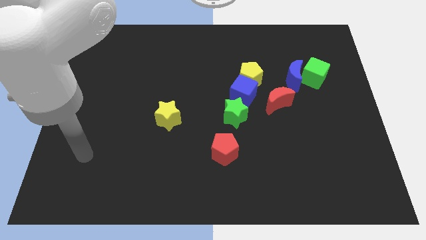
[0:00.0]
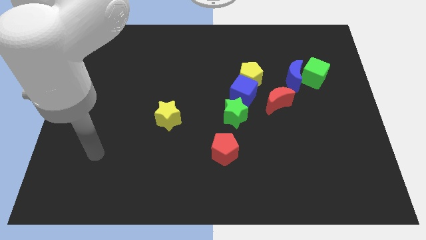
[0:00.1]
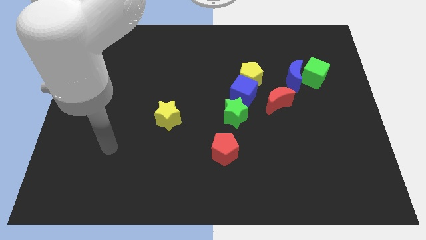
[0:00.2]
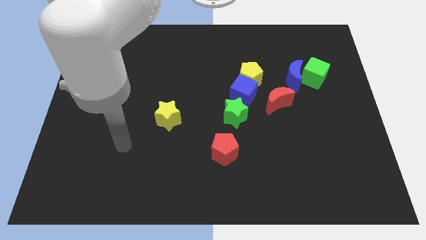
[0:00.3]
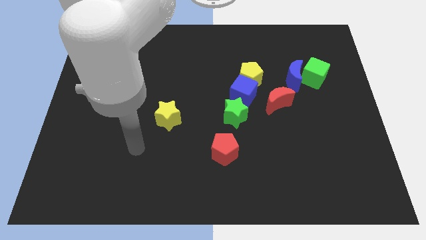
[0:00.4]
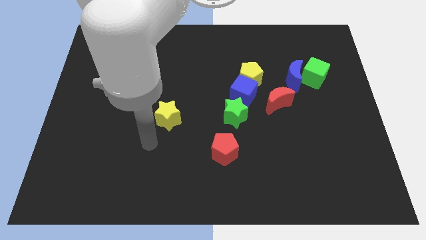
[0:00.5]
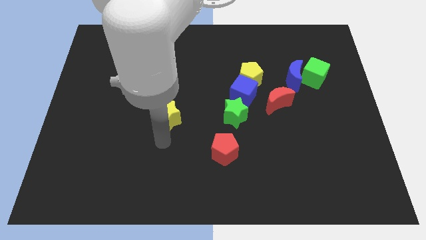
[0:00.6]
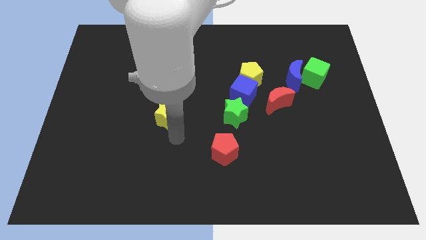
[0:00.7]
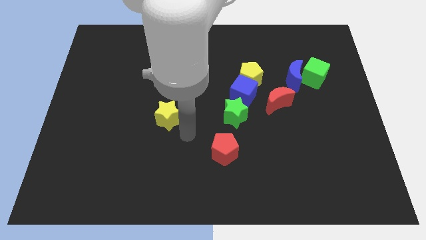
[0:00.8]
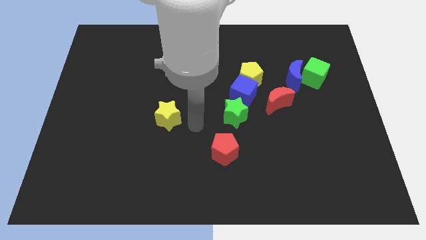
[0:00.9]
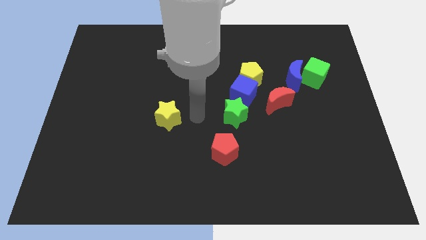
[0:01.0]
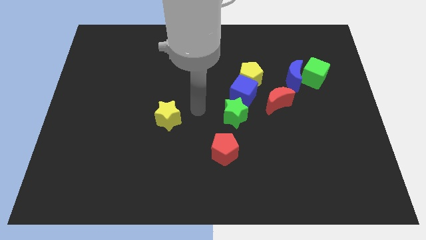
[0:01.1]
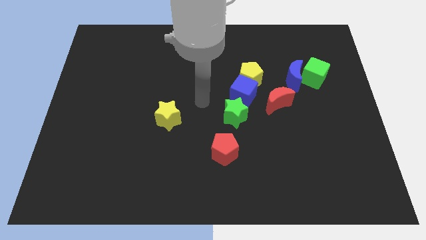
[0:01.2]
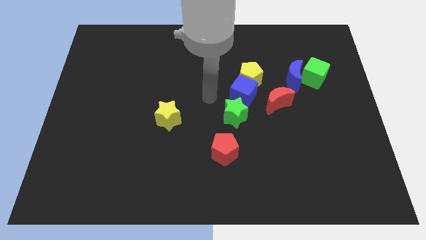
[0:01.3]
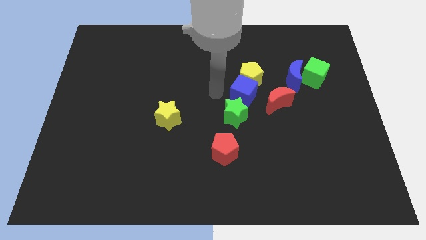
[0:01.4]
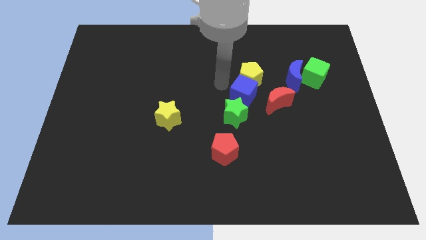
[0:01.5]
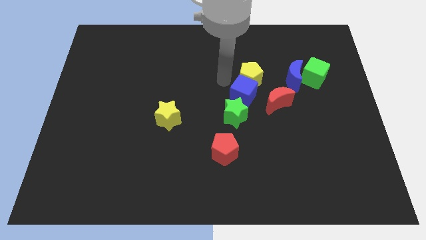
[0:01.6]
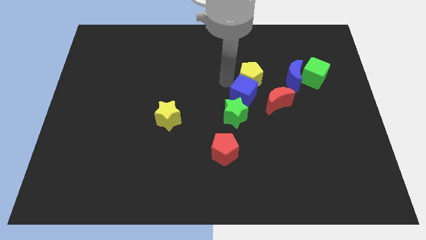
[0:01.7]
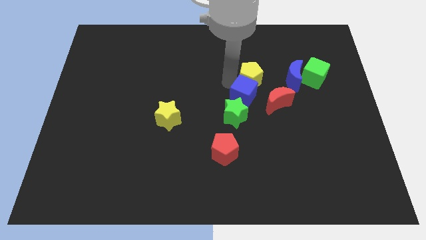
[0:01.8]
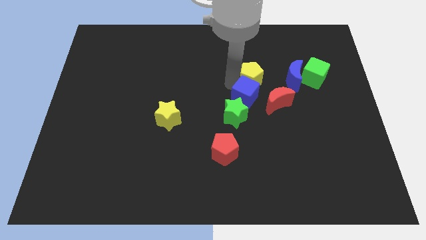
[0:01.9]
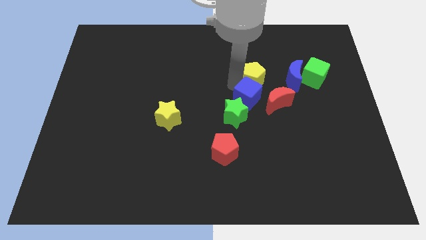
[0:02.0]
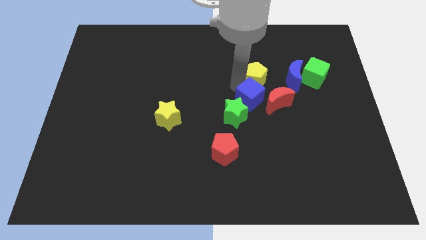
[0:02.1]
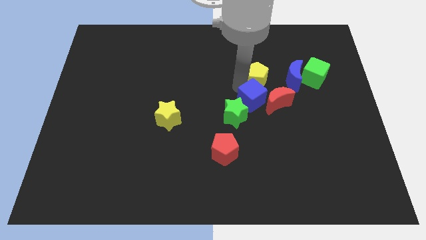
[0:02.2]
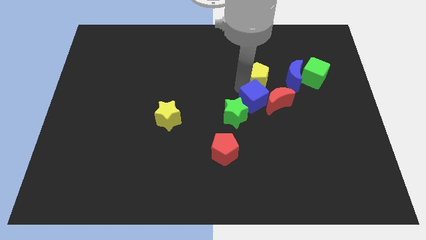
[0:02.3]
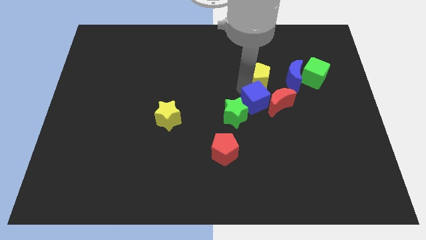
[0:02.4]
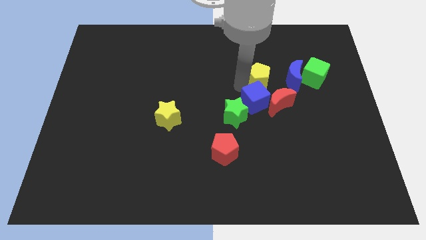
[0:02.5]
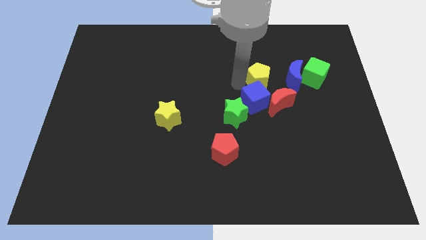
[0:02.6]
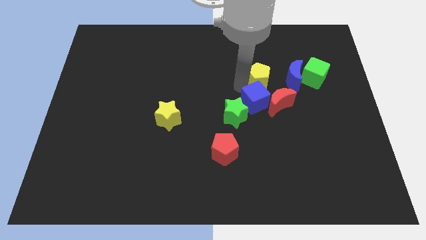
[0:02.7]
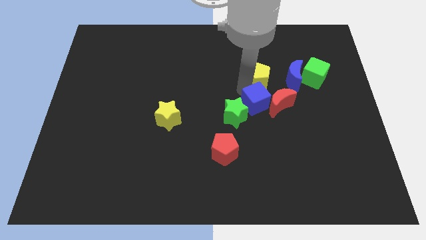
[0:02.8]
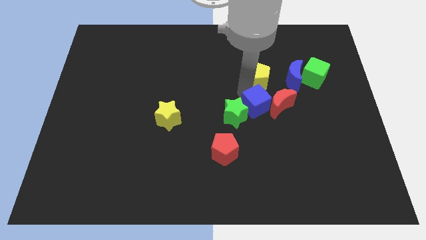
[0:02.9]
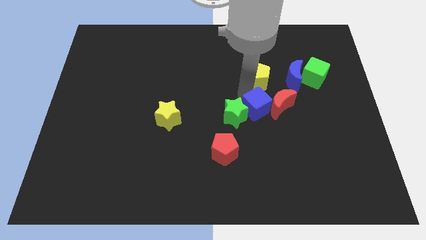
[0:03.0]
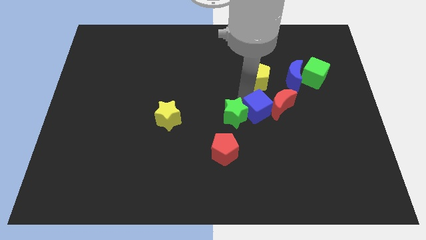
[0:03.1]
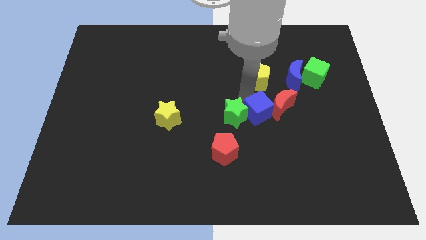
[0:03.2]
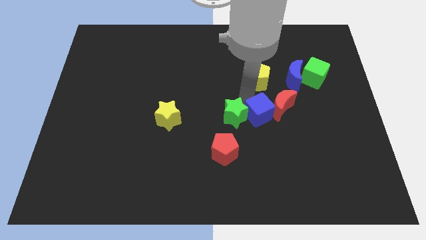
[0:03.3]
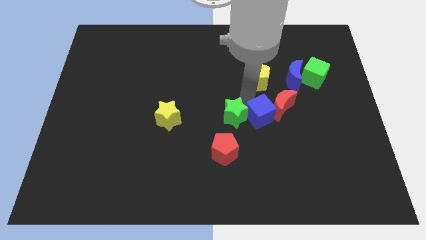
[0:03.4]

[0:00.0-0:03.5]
slide the blue cube a little bit diagonally down and to the right

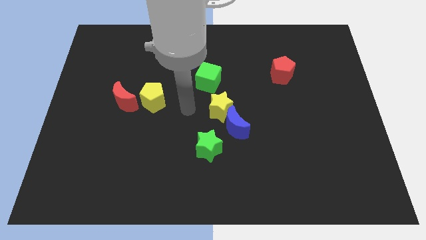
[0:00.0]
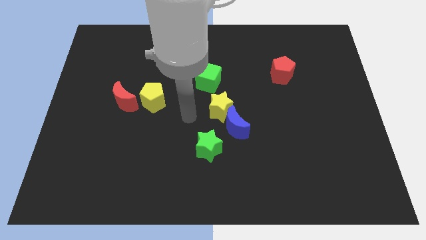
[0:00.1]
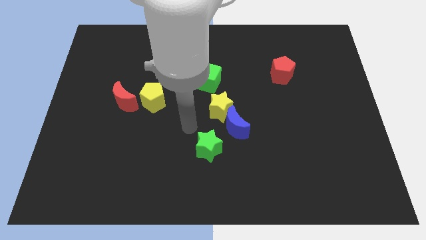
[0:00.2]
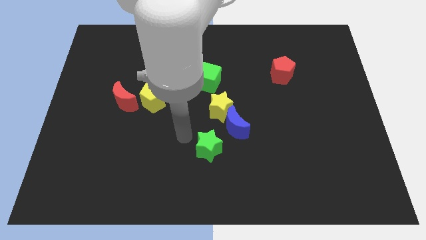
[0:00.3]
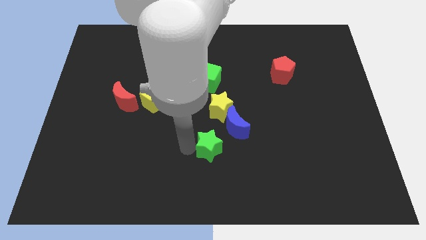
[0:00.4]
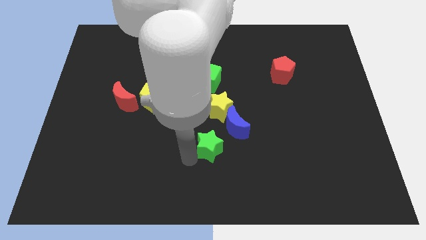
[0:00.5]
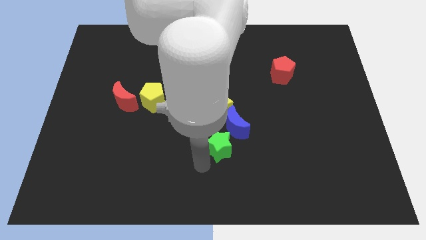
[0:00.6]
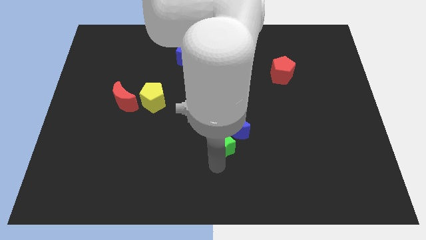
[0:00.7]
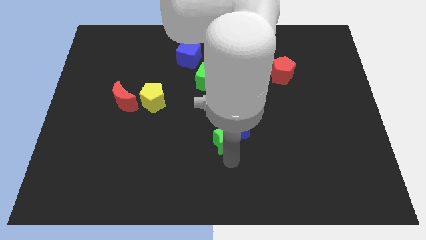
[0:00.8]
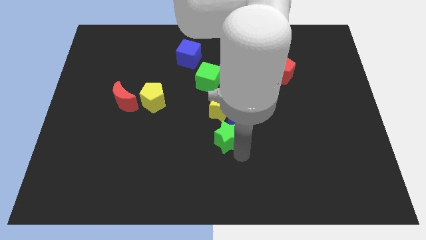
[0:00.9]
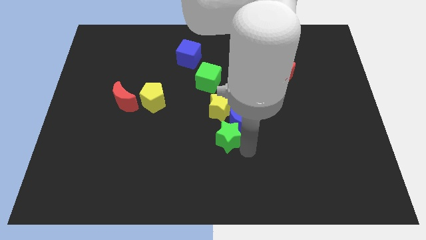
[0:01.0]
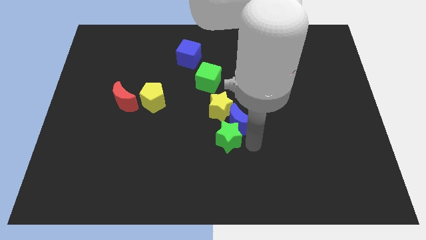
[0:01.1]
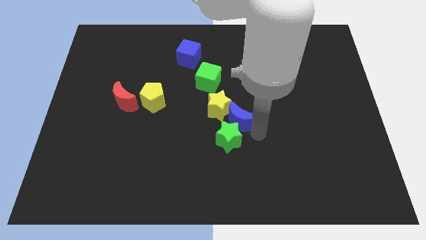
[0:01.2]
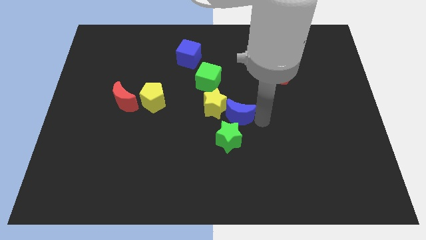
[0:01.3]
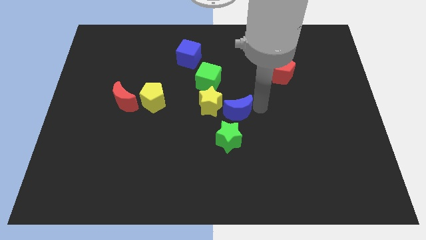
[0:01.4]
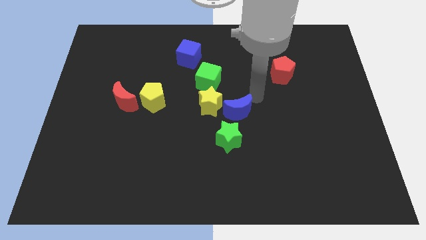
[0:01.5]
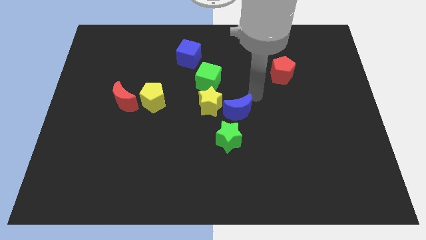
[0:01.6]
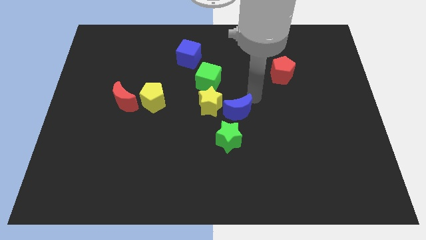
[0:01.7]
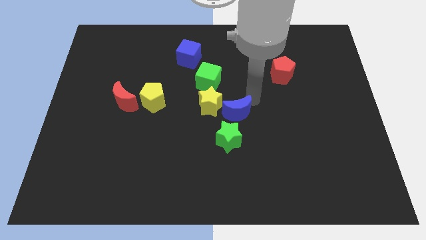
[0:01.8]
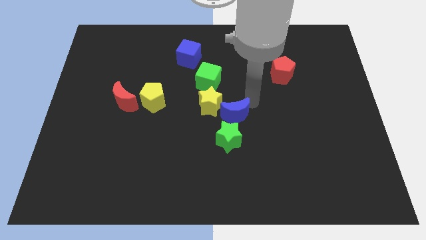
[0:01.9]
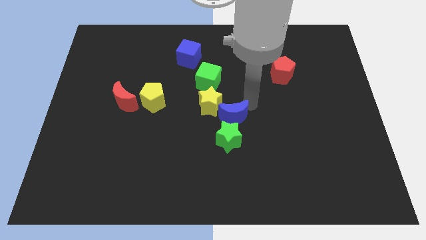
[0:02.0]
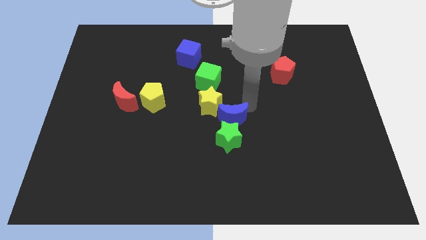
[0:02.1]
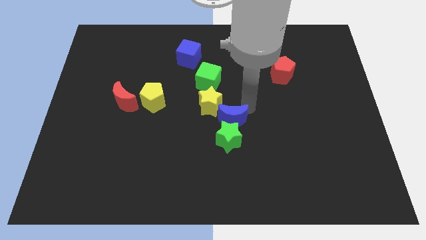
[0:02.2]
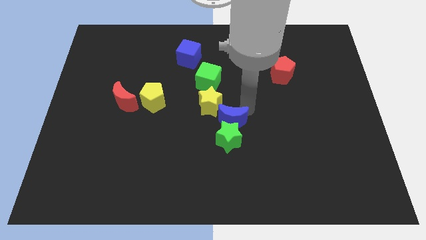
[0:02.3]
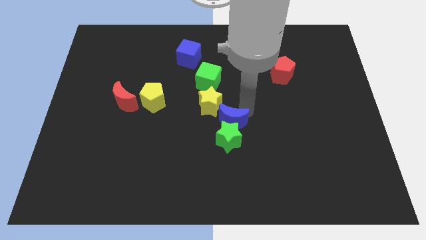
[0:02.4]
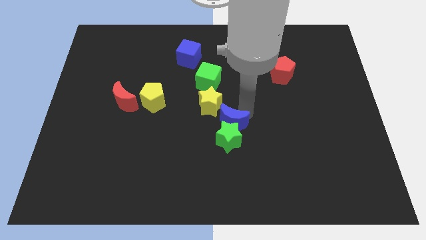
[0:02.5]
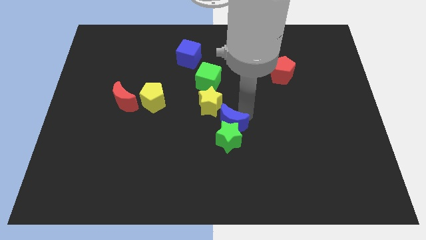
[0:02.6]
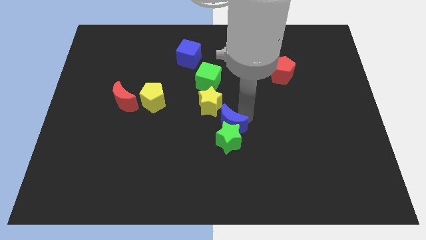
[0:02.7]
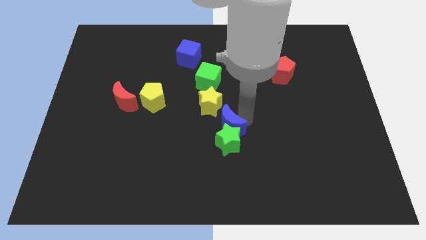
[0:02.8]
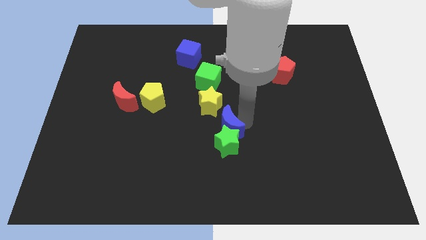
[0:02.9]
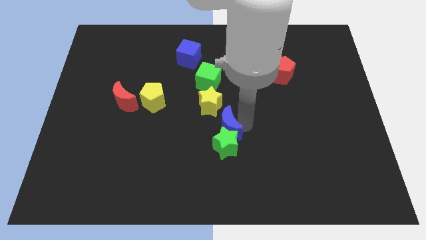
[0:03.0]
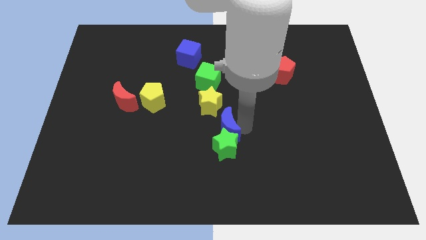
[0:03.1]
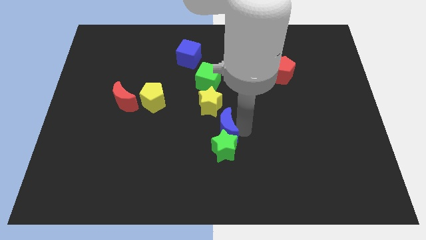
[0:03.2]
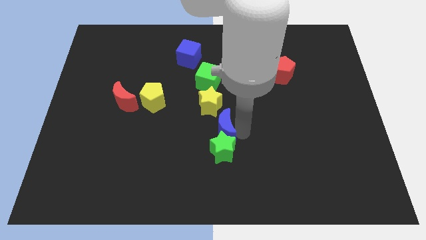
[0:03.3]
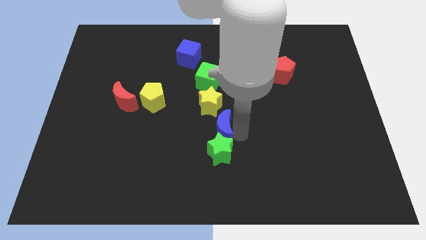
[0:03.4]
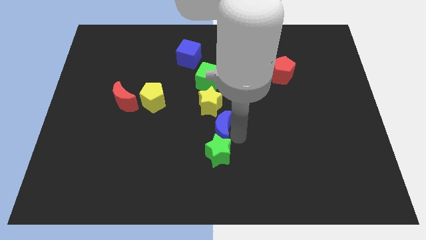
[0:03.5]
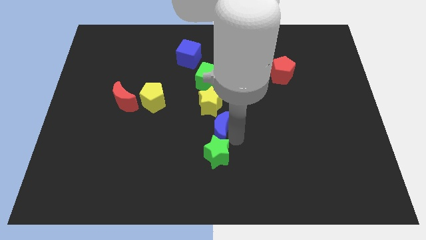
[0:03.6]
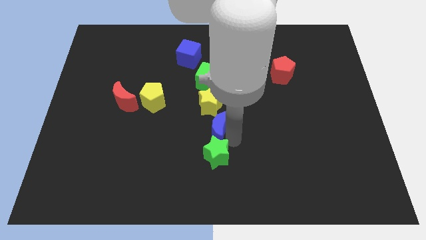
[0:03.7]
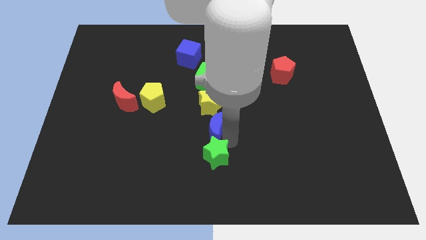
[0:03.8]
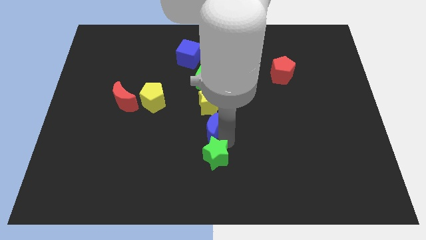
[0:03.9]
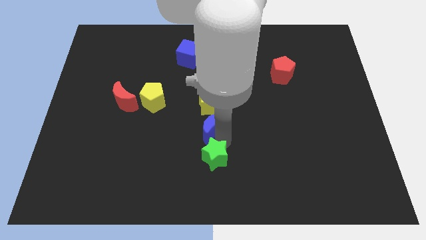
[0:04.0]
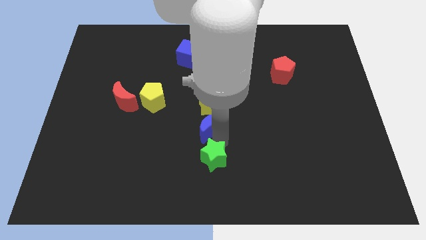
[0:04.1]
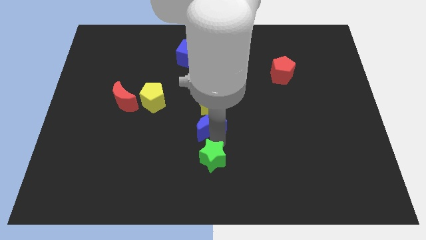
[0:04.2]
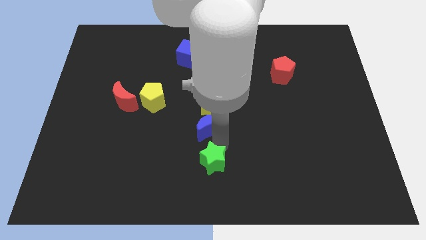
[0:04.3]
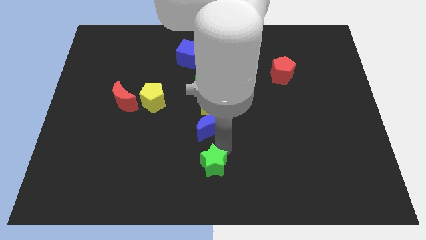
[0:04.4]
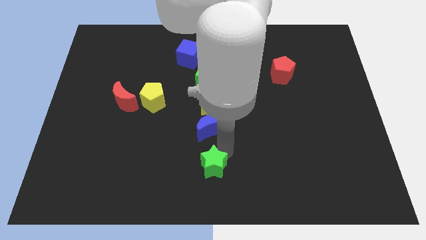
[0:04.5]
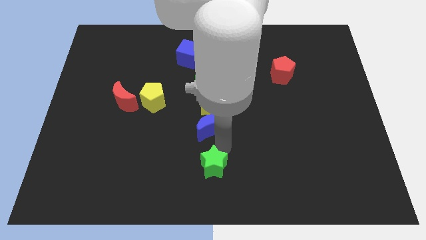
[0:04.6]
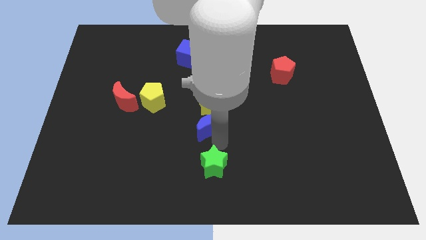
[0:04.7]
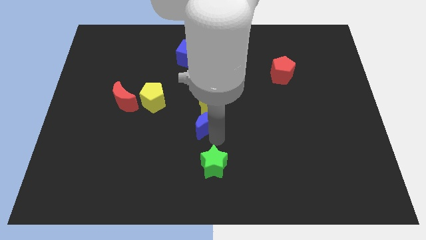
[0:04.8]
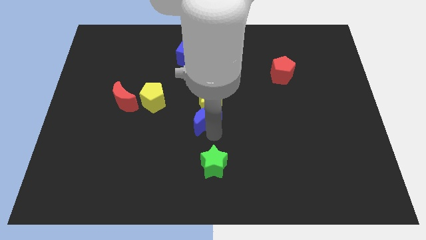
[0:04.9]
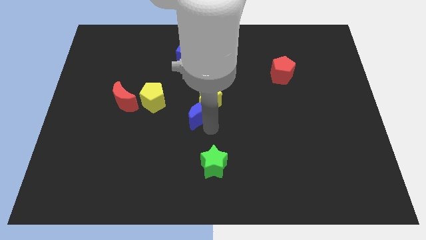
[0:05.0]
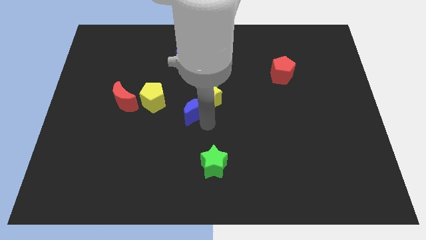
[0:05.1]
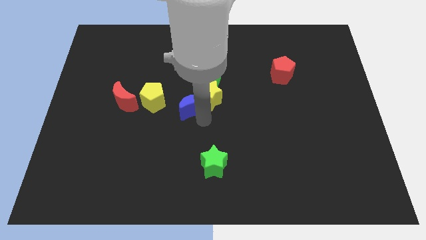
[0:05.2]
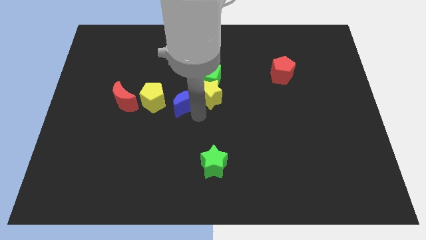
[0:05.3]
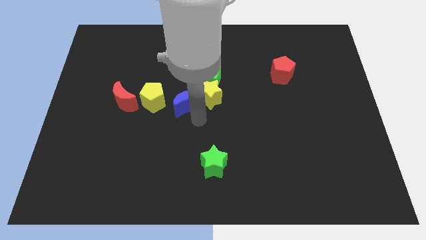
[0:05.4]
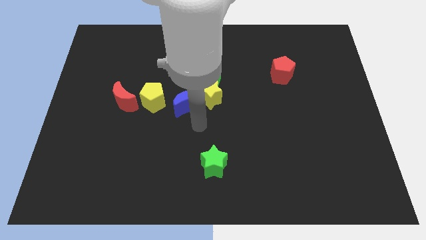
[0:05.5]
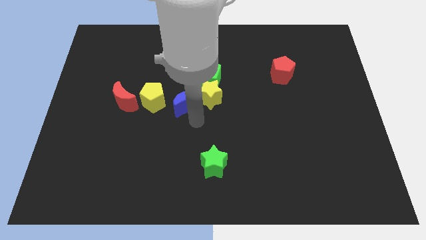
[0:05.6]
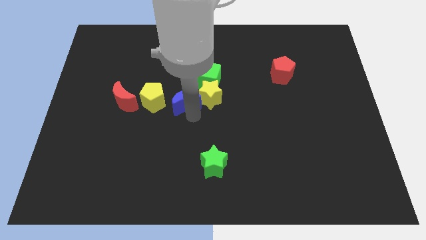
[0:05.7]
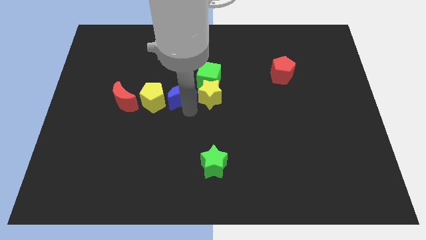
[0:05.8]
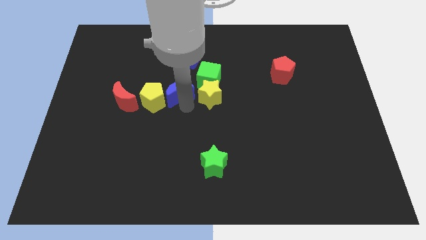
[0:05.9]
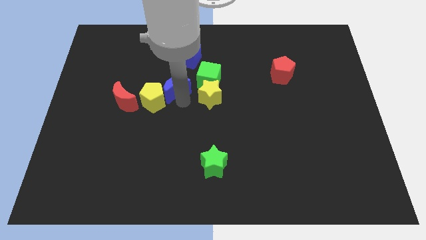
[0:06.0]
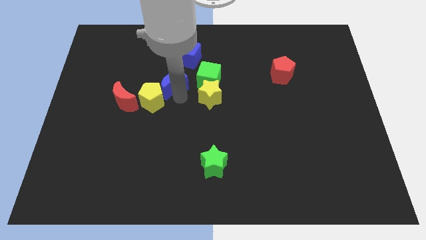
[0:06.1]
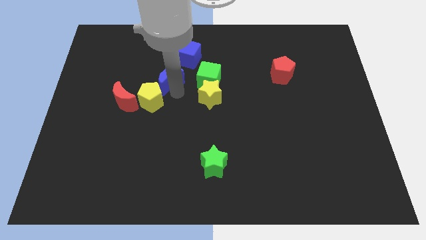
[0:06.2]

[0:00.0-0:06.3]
slide the blue moon upwards and then to the left
